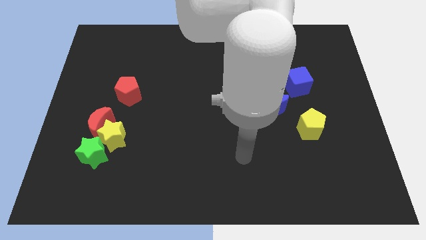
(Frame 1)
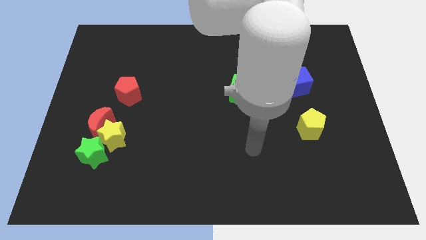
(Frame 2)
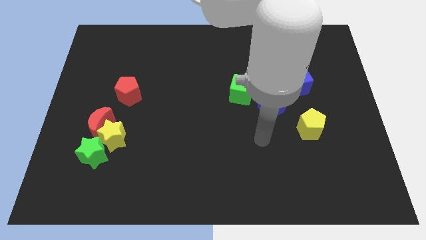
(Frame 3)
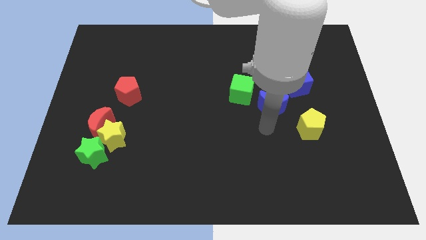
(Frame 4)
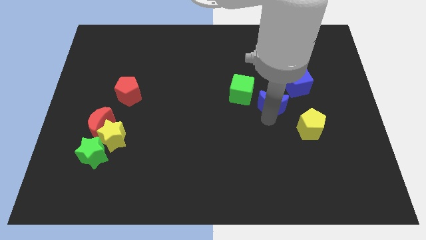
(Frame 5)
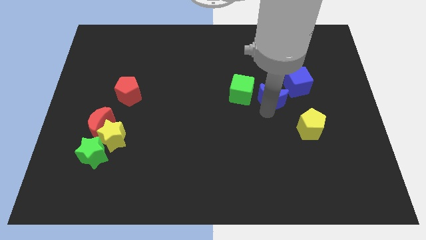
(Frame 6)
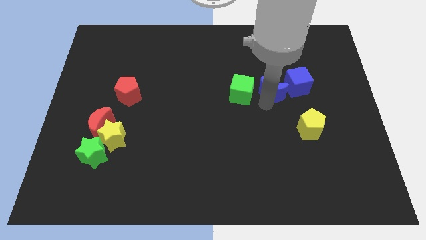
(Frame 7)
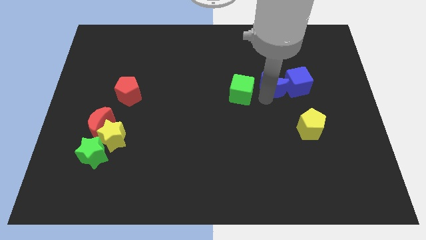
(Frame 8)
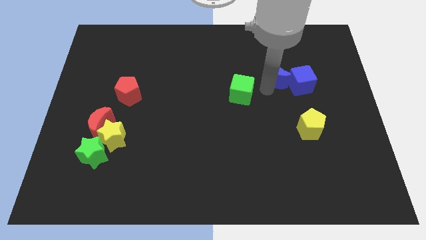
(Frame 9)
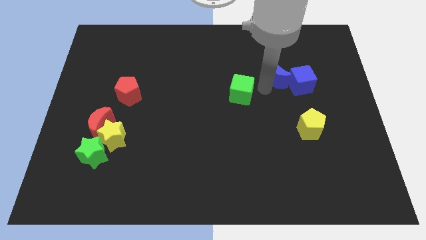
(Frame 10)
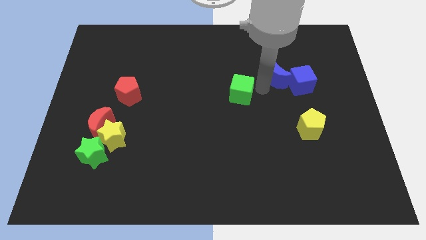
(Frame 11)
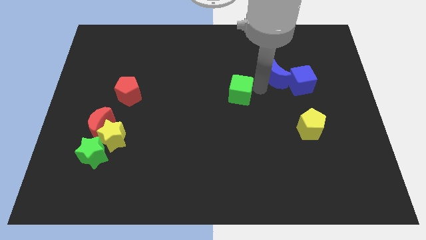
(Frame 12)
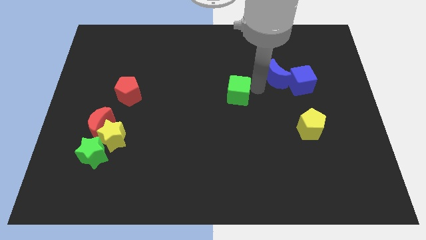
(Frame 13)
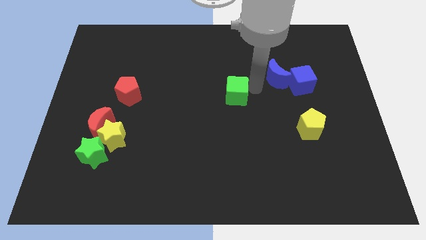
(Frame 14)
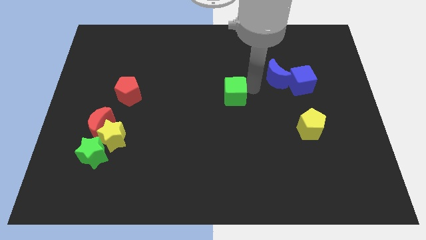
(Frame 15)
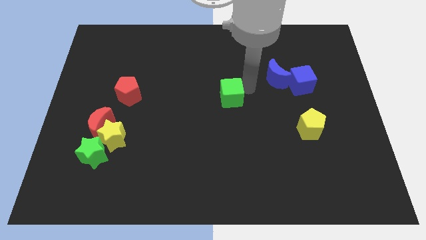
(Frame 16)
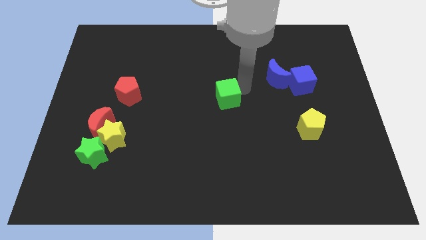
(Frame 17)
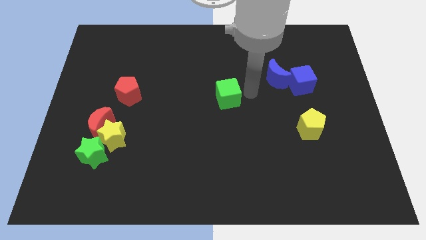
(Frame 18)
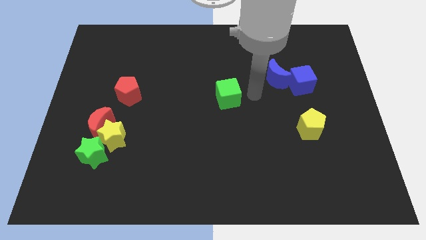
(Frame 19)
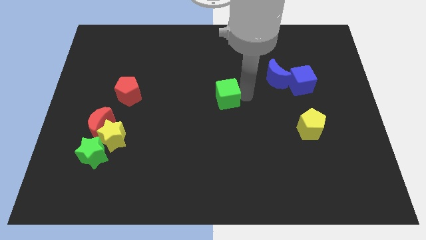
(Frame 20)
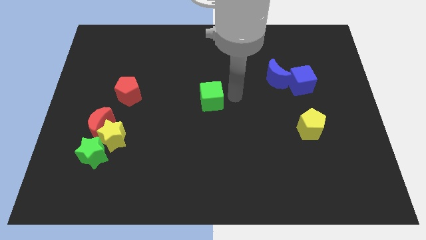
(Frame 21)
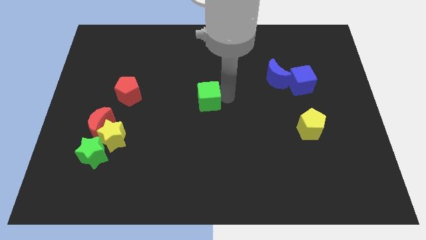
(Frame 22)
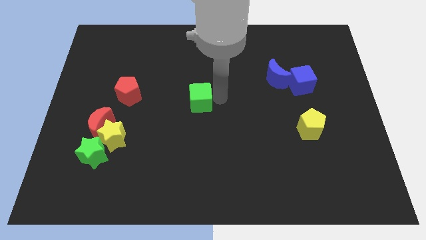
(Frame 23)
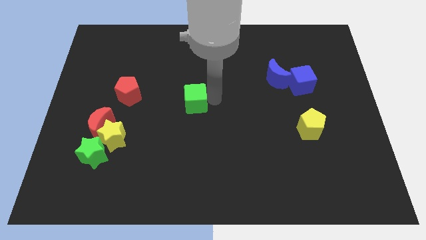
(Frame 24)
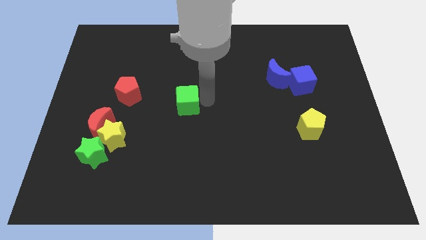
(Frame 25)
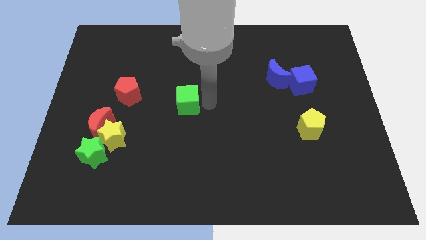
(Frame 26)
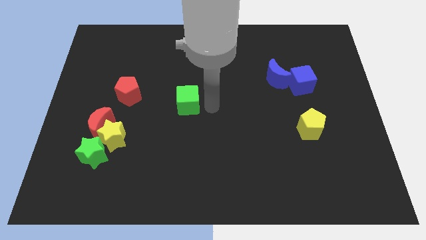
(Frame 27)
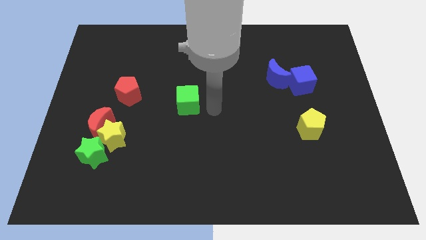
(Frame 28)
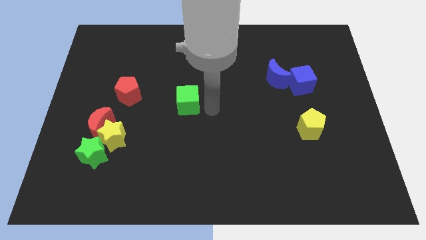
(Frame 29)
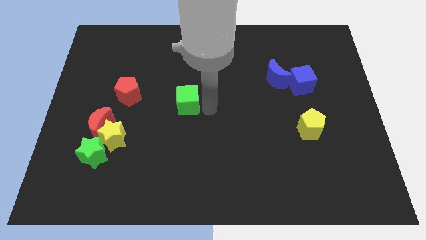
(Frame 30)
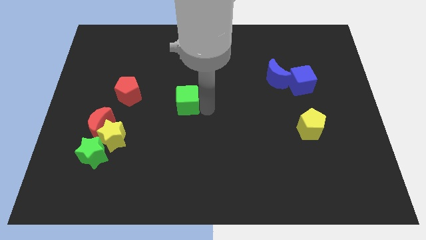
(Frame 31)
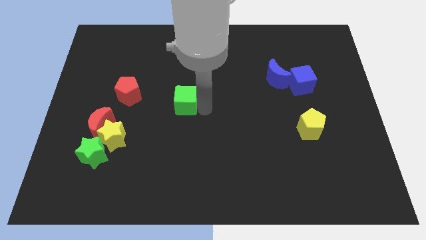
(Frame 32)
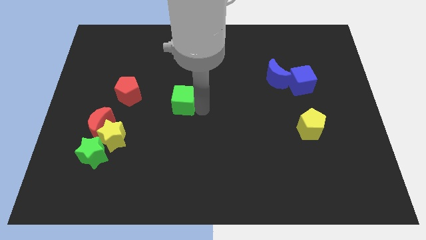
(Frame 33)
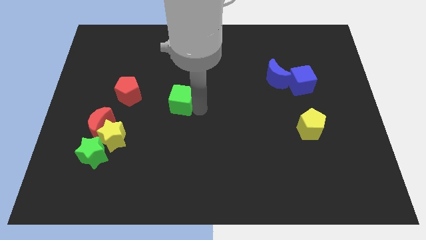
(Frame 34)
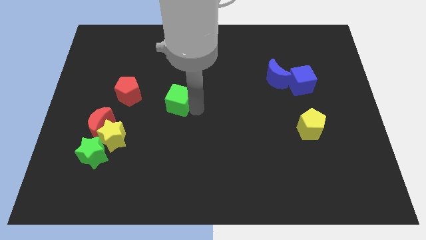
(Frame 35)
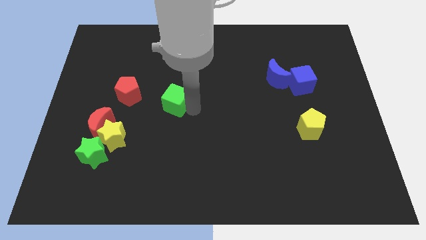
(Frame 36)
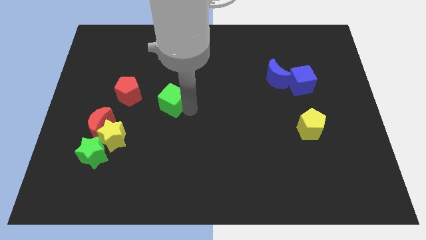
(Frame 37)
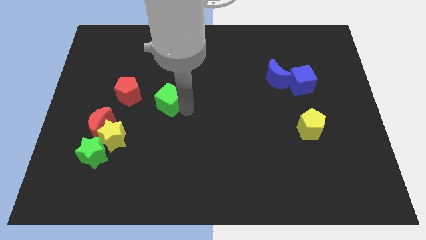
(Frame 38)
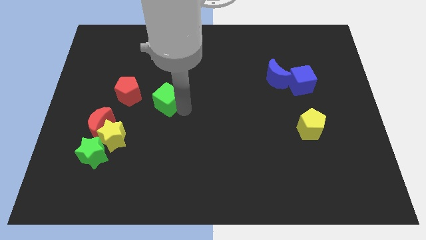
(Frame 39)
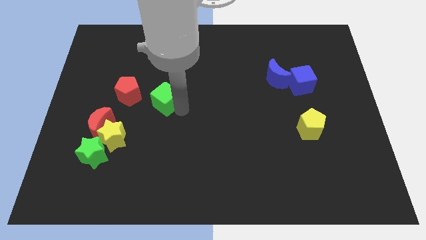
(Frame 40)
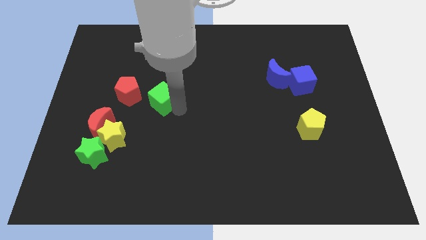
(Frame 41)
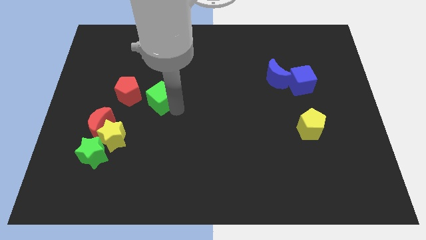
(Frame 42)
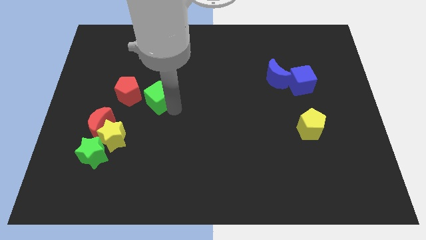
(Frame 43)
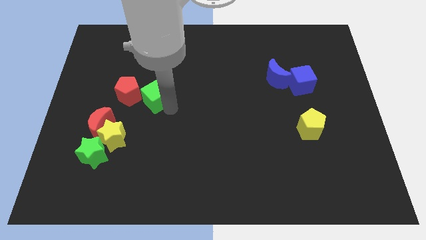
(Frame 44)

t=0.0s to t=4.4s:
push the green cube left

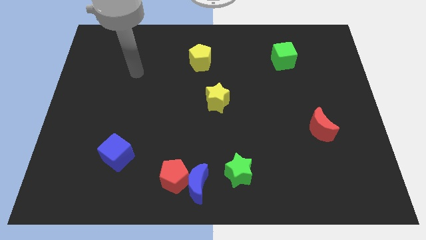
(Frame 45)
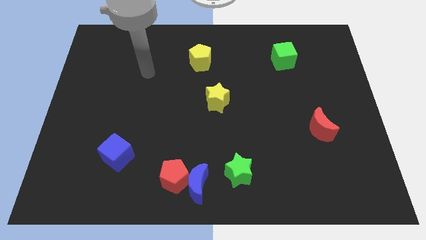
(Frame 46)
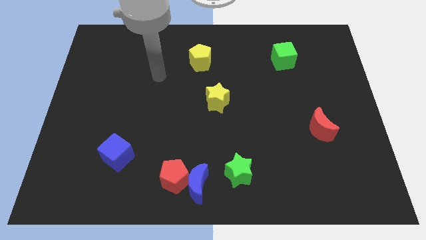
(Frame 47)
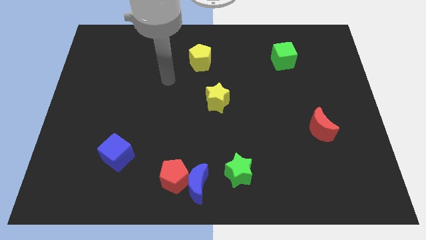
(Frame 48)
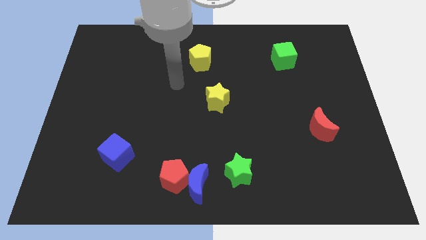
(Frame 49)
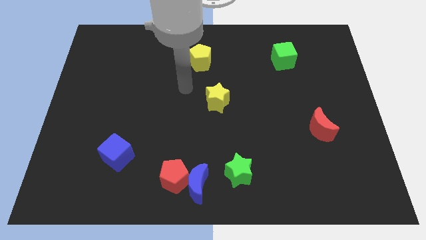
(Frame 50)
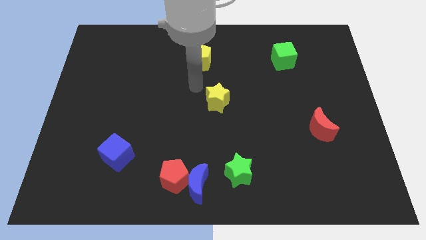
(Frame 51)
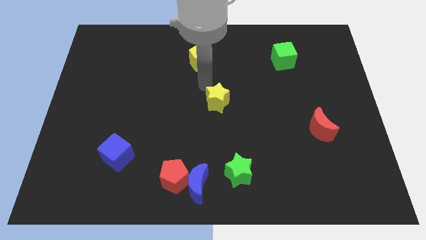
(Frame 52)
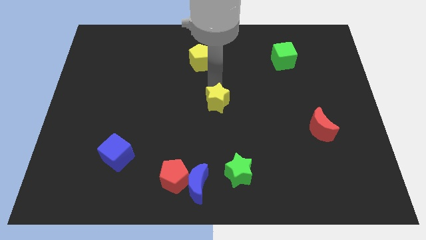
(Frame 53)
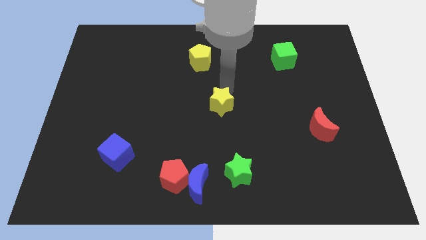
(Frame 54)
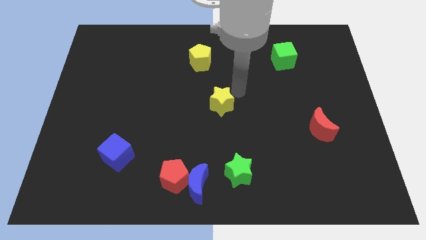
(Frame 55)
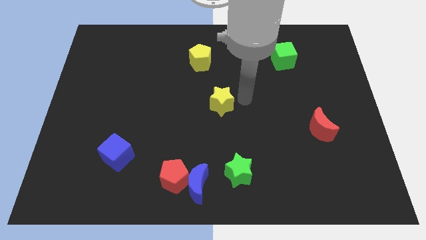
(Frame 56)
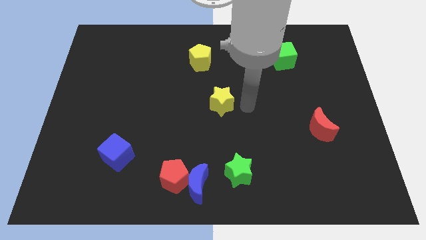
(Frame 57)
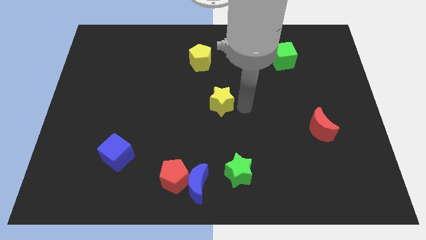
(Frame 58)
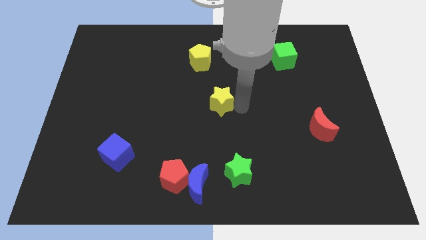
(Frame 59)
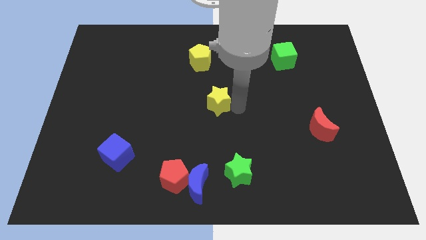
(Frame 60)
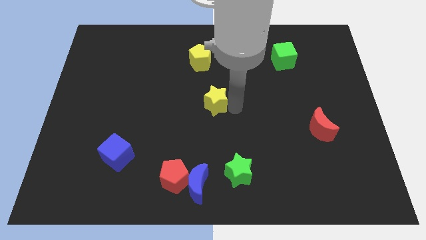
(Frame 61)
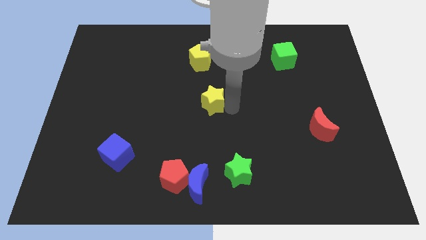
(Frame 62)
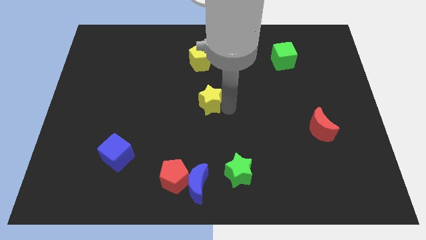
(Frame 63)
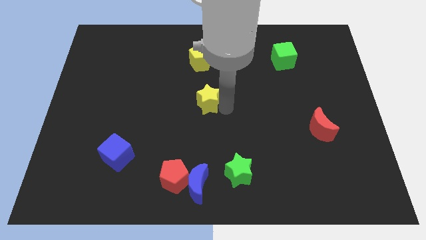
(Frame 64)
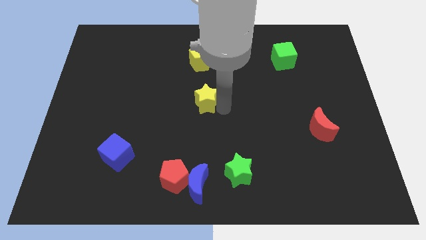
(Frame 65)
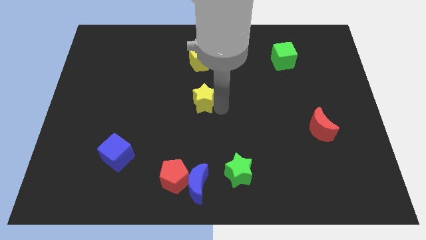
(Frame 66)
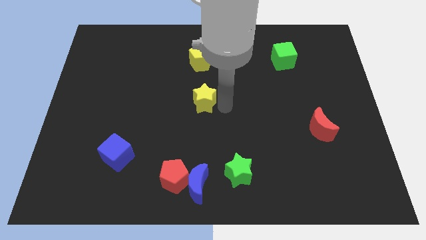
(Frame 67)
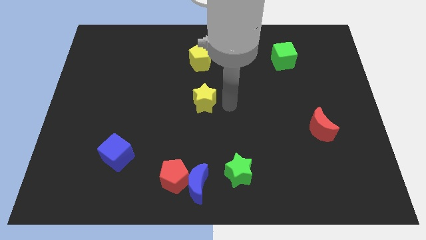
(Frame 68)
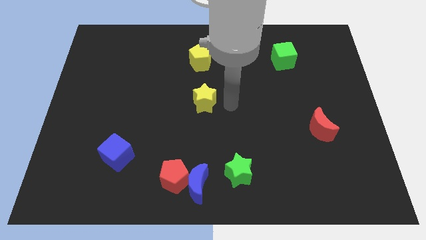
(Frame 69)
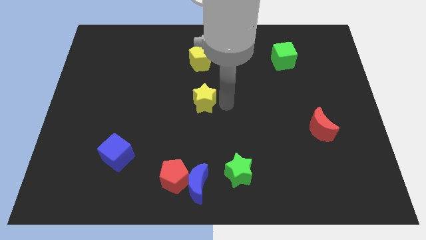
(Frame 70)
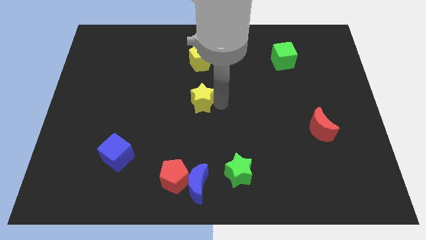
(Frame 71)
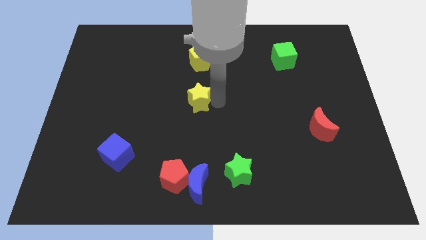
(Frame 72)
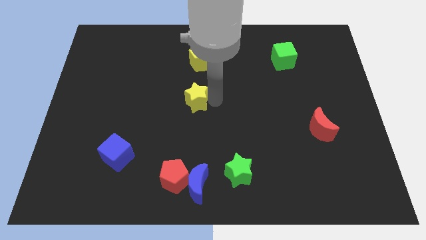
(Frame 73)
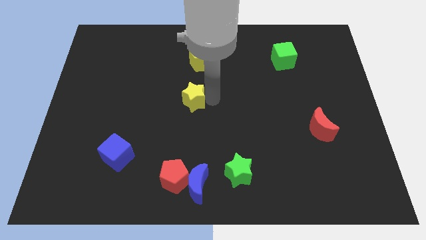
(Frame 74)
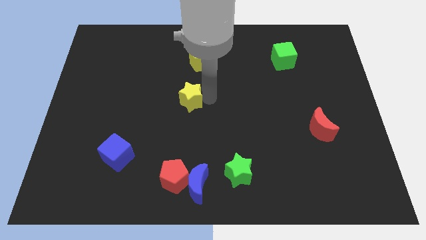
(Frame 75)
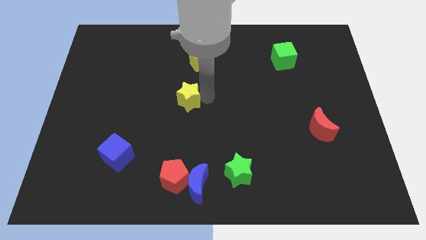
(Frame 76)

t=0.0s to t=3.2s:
slide the yellow star to the left a little

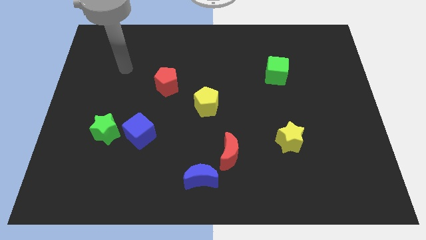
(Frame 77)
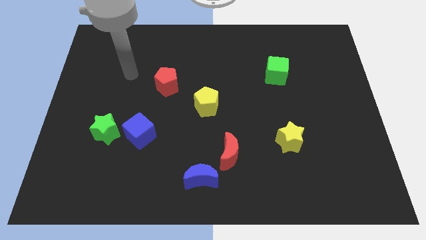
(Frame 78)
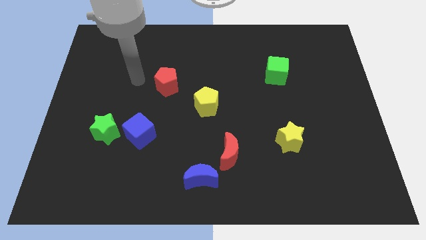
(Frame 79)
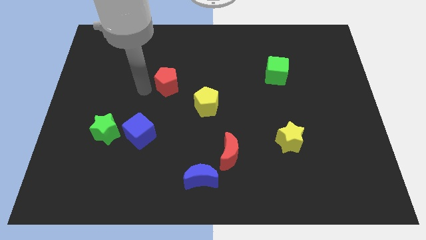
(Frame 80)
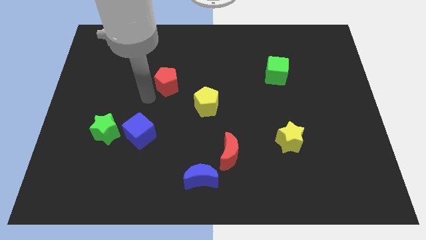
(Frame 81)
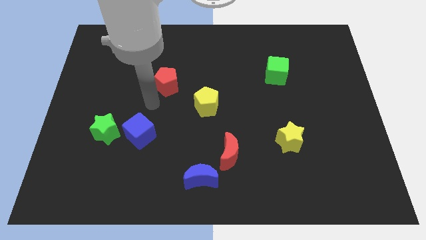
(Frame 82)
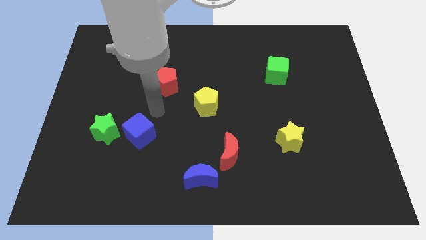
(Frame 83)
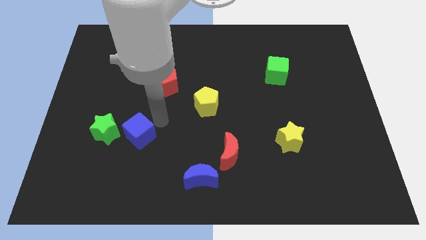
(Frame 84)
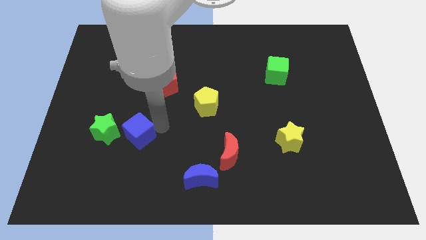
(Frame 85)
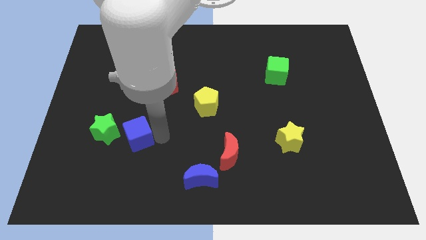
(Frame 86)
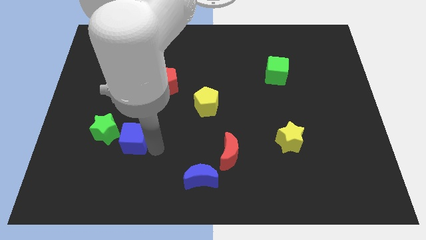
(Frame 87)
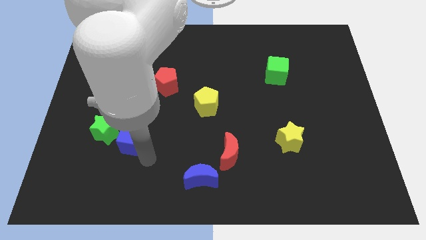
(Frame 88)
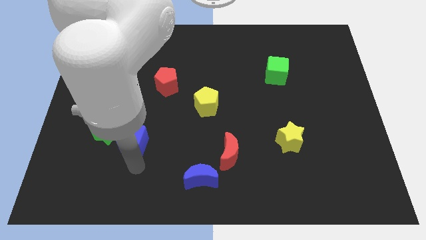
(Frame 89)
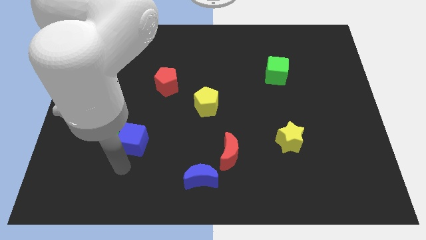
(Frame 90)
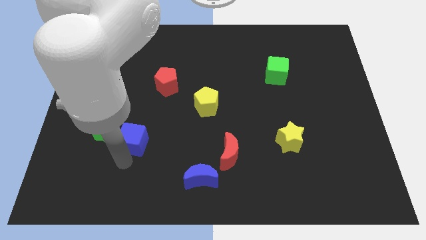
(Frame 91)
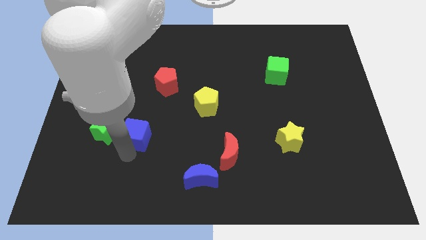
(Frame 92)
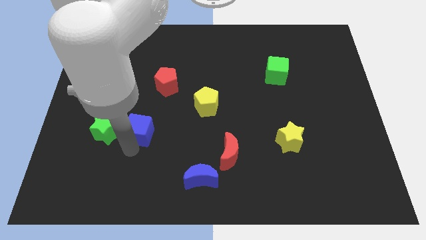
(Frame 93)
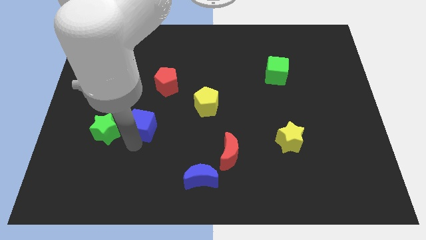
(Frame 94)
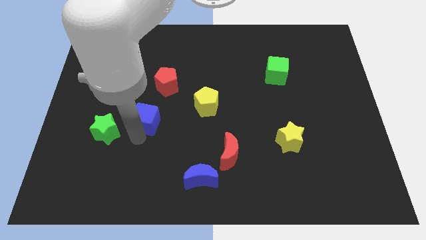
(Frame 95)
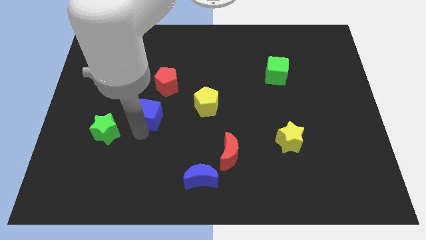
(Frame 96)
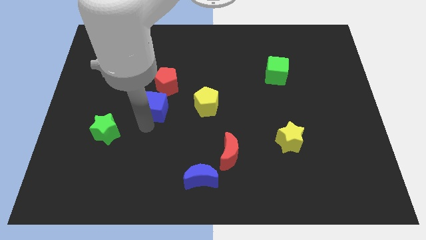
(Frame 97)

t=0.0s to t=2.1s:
move the blue cube somewhat up
